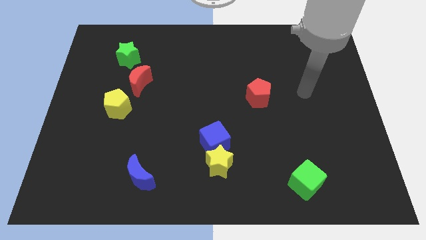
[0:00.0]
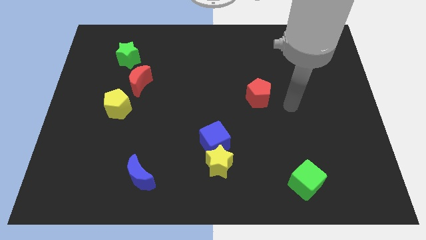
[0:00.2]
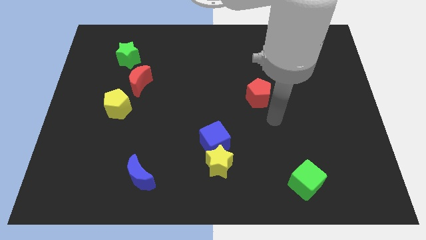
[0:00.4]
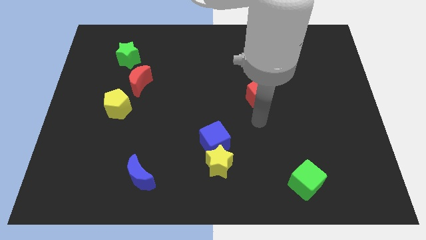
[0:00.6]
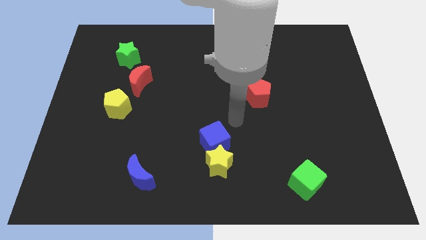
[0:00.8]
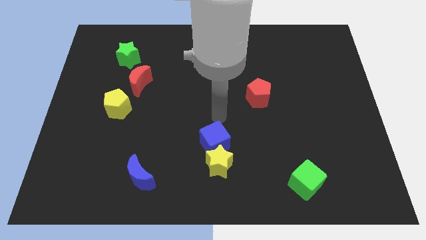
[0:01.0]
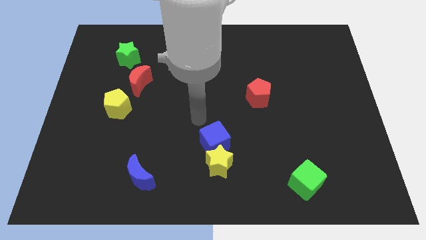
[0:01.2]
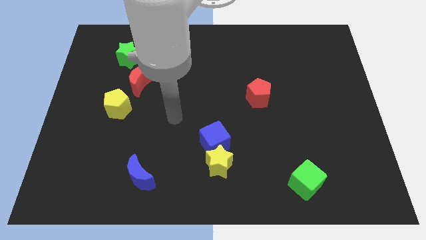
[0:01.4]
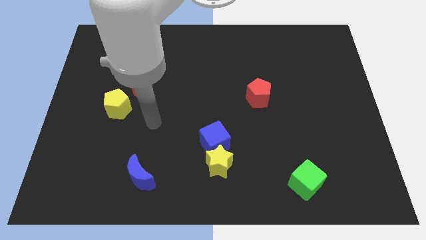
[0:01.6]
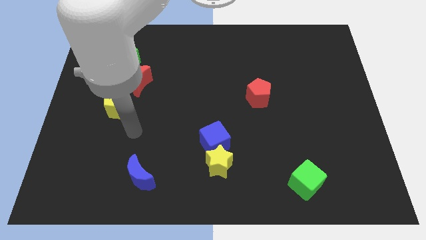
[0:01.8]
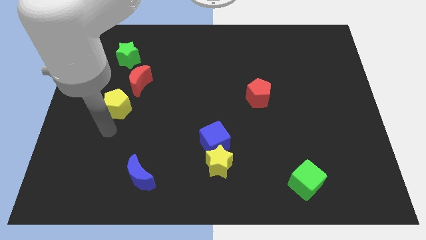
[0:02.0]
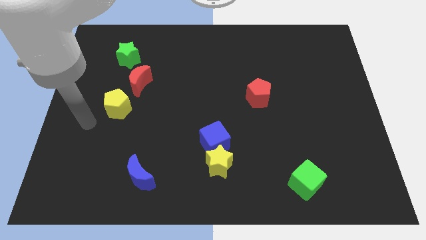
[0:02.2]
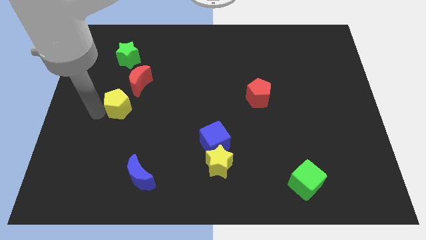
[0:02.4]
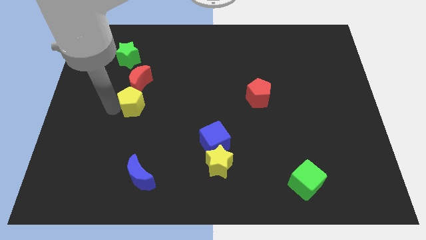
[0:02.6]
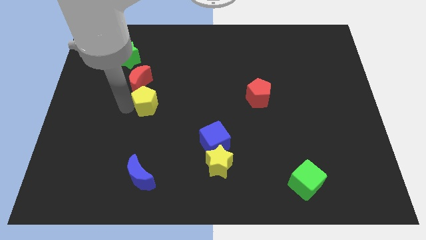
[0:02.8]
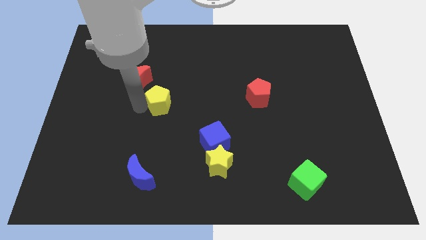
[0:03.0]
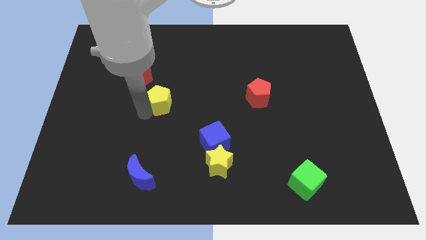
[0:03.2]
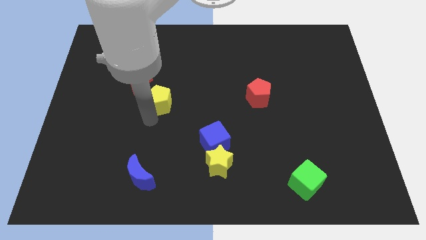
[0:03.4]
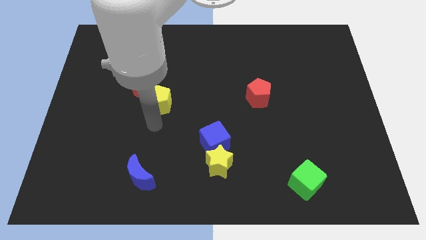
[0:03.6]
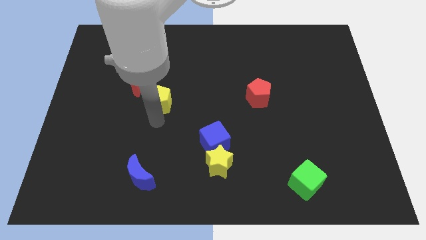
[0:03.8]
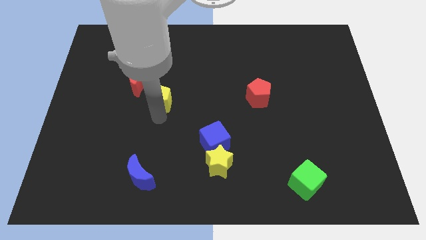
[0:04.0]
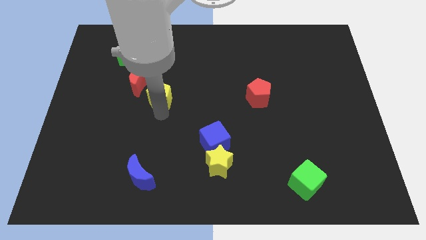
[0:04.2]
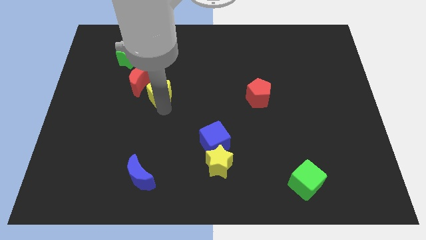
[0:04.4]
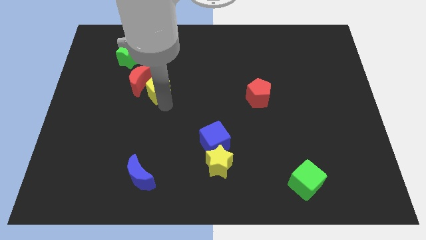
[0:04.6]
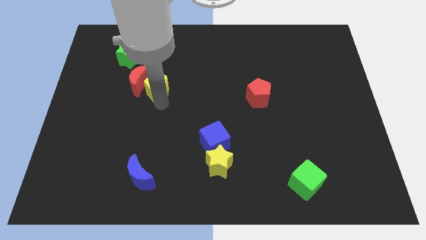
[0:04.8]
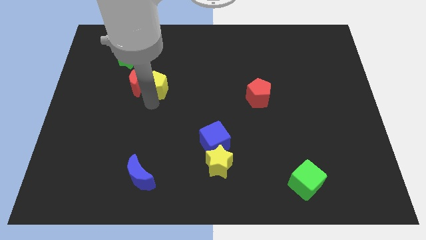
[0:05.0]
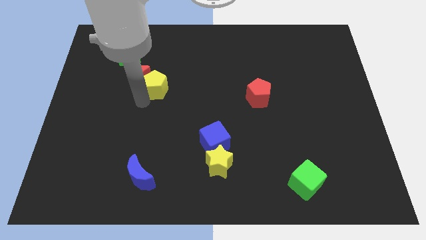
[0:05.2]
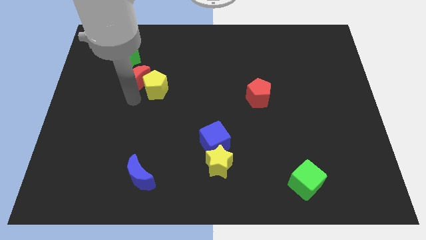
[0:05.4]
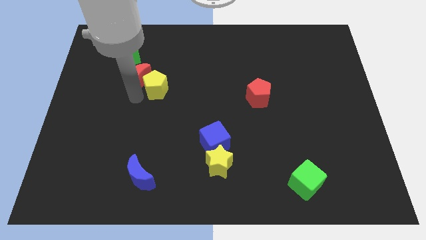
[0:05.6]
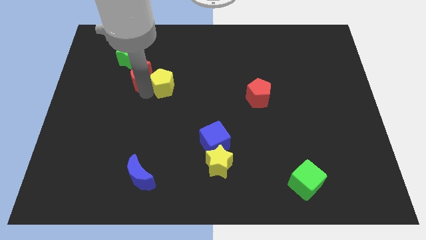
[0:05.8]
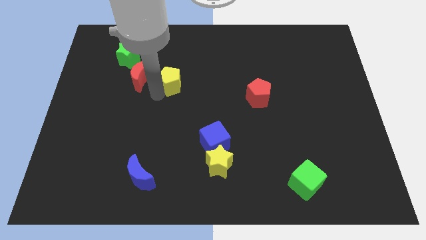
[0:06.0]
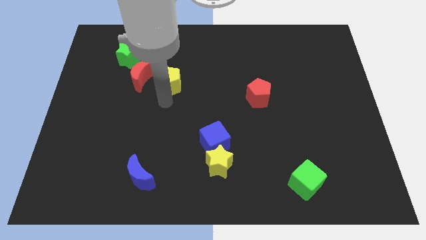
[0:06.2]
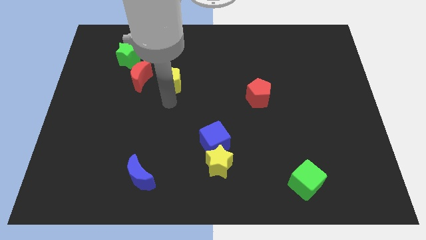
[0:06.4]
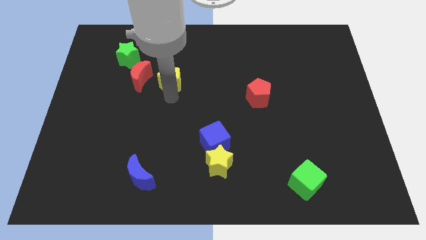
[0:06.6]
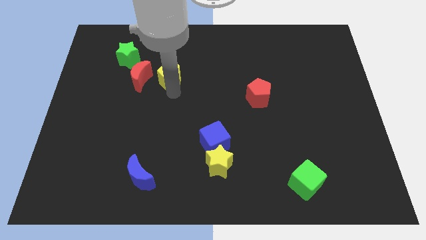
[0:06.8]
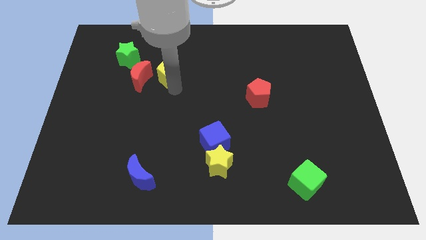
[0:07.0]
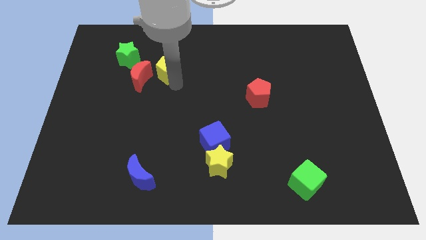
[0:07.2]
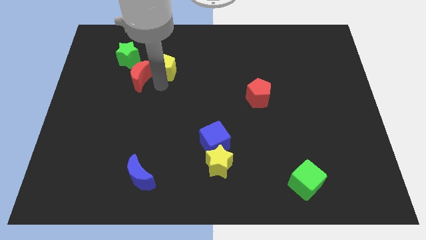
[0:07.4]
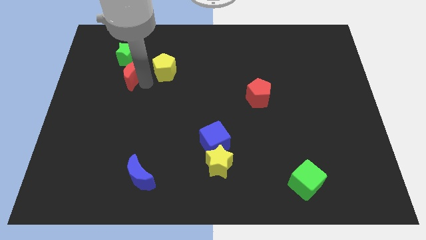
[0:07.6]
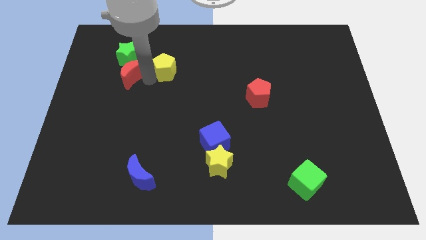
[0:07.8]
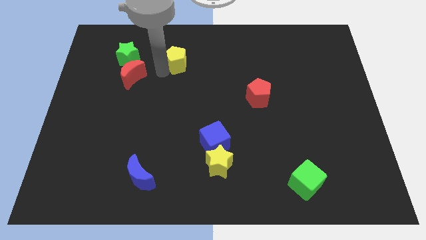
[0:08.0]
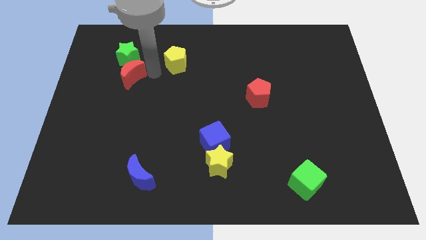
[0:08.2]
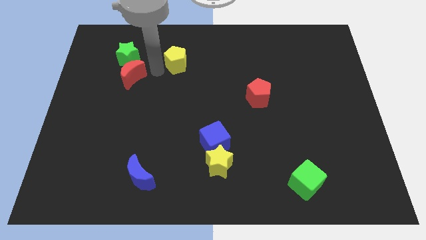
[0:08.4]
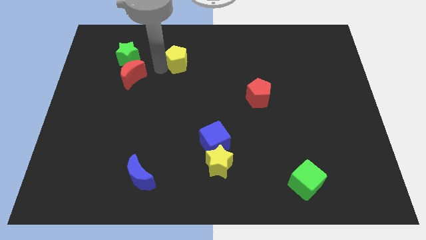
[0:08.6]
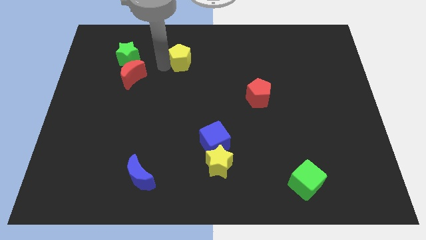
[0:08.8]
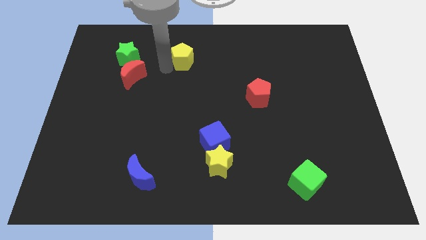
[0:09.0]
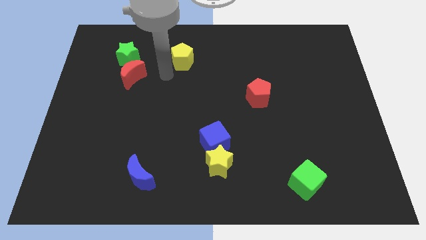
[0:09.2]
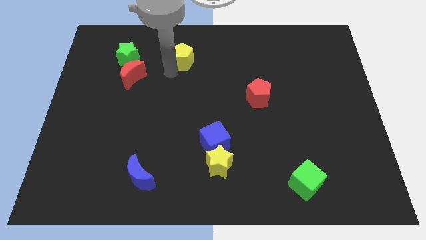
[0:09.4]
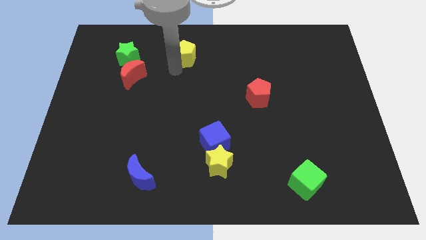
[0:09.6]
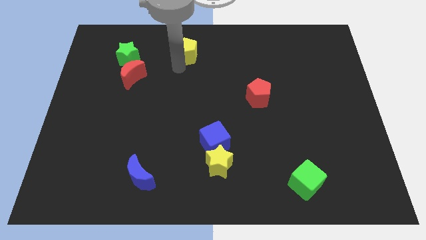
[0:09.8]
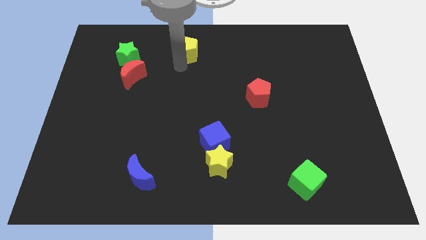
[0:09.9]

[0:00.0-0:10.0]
push the yellow pentagon to the top side
